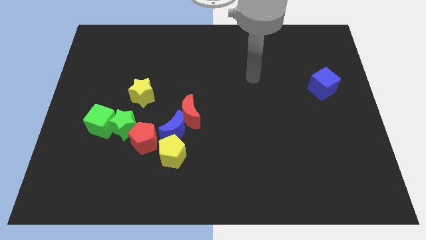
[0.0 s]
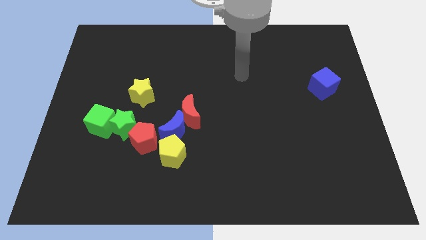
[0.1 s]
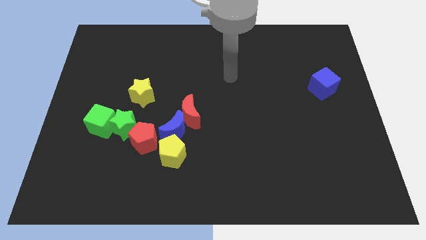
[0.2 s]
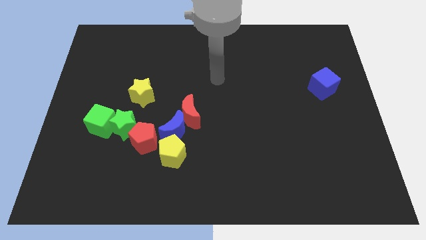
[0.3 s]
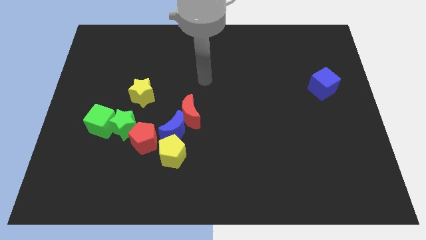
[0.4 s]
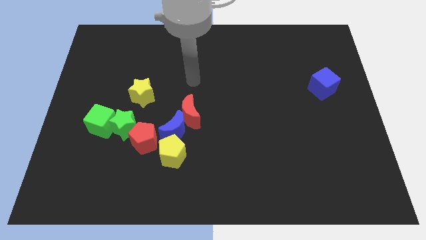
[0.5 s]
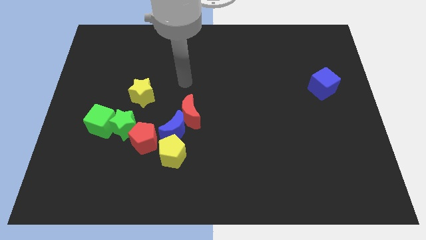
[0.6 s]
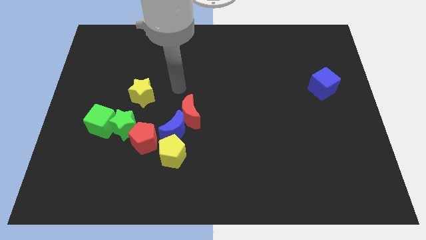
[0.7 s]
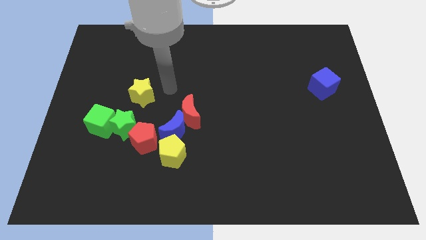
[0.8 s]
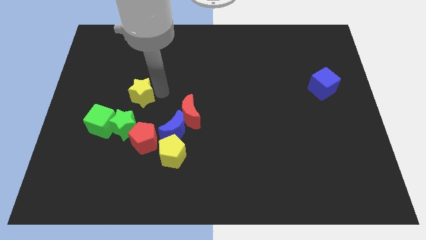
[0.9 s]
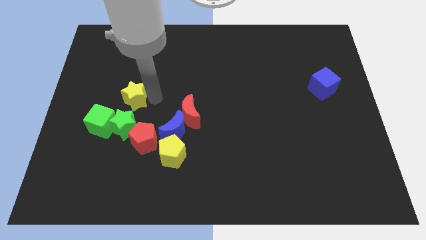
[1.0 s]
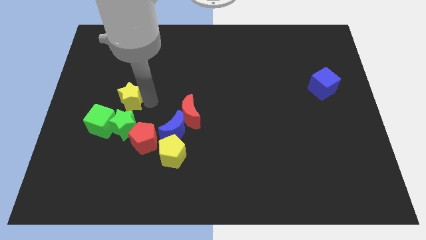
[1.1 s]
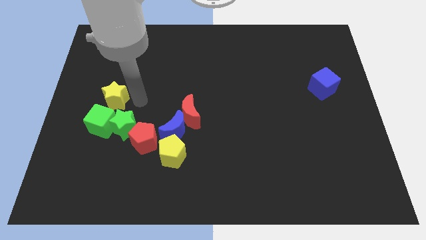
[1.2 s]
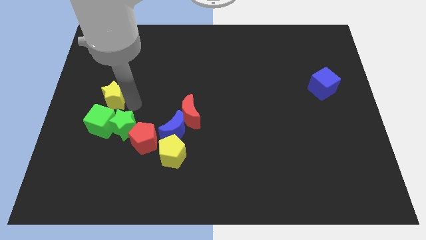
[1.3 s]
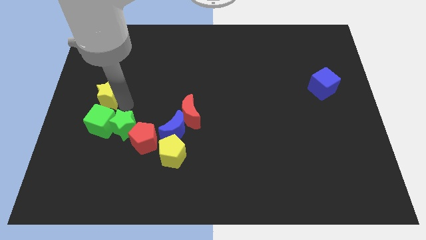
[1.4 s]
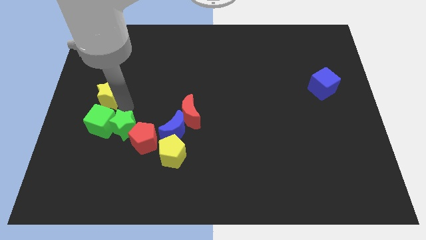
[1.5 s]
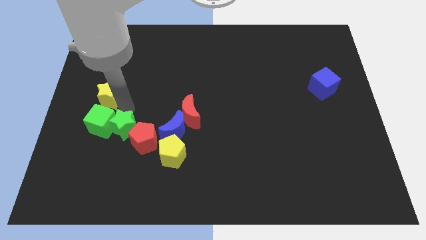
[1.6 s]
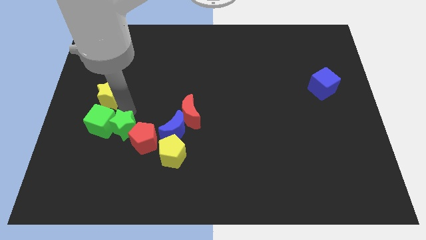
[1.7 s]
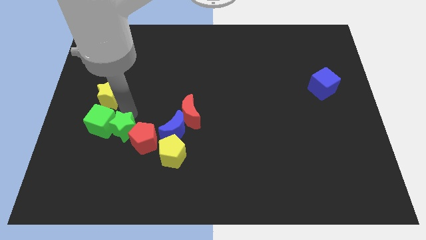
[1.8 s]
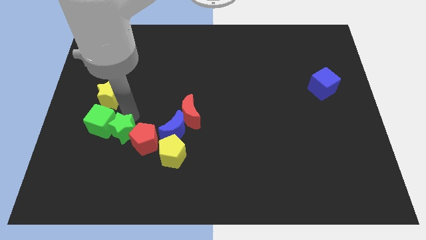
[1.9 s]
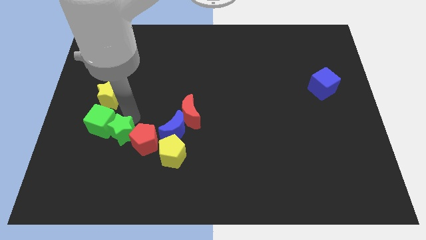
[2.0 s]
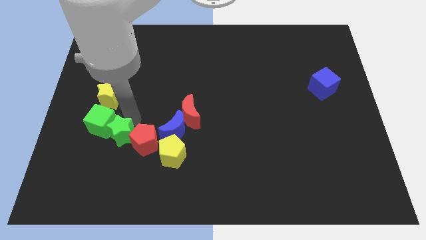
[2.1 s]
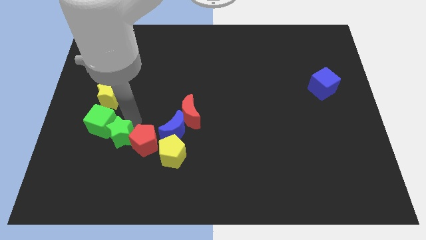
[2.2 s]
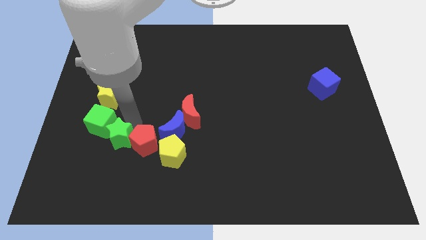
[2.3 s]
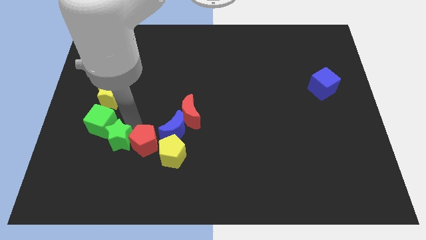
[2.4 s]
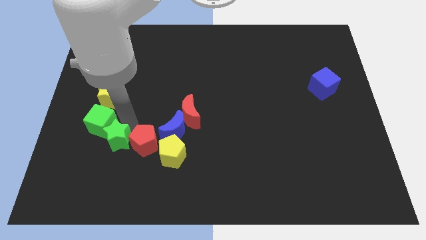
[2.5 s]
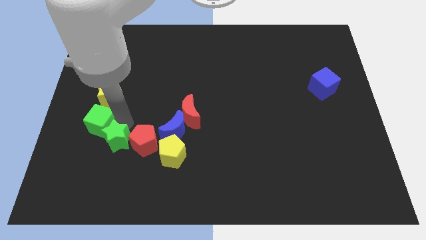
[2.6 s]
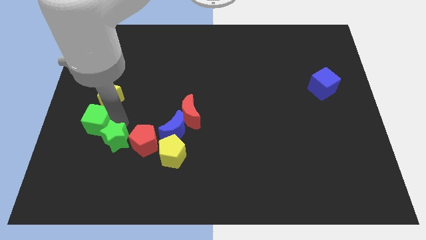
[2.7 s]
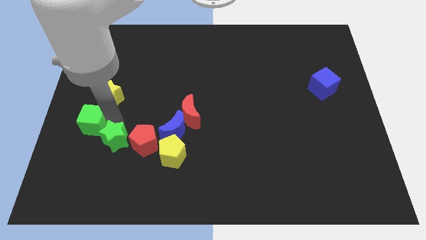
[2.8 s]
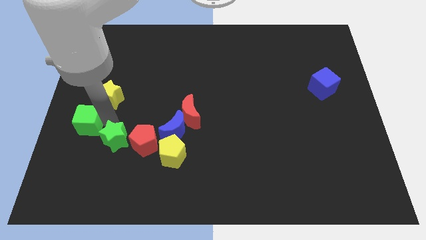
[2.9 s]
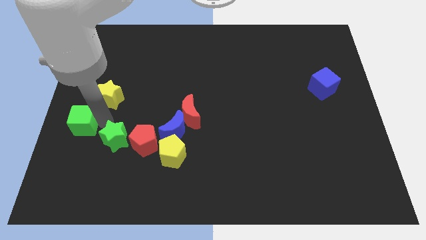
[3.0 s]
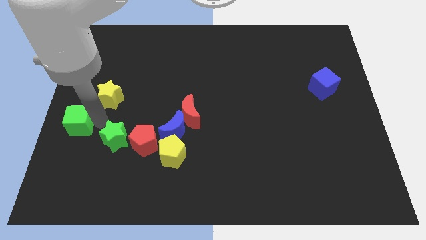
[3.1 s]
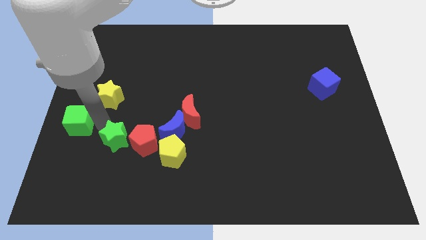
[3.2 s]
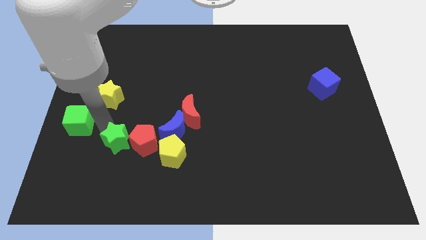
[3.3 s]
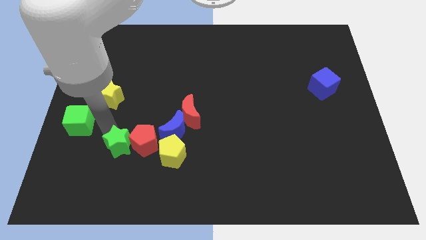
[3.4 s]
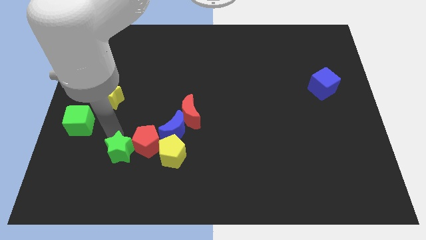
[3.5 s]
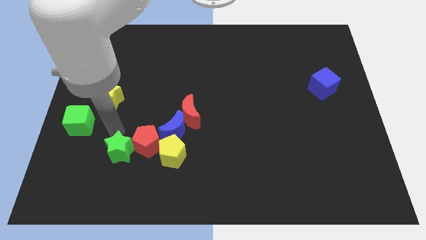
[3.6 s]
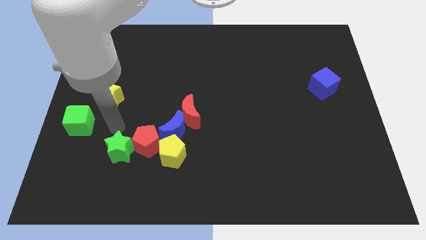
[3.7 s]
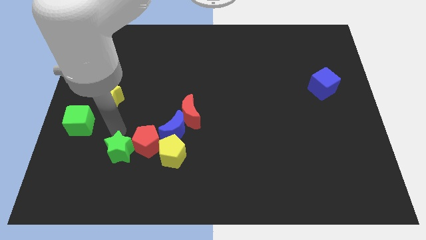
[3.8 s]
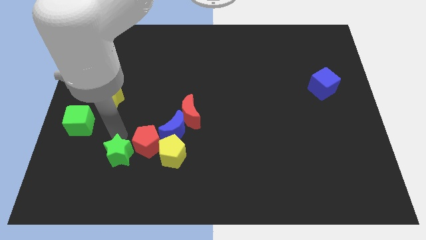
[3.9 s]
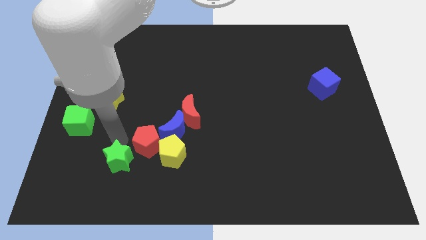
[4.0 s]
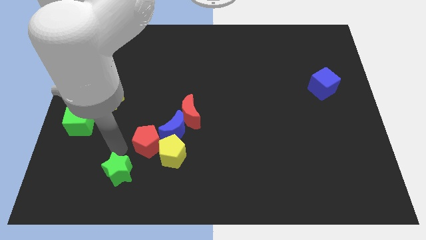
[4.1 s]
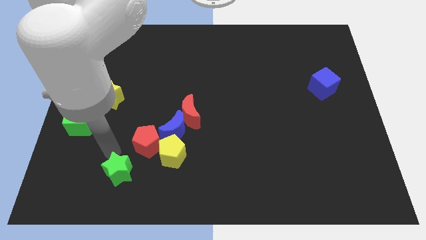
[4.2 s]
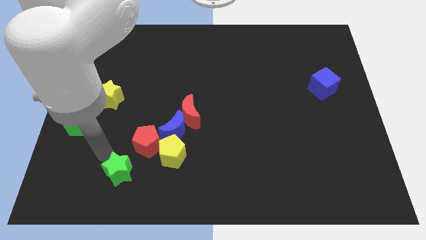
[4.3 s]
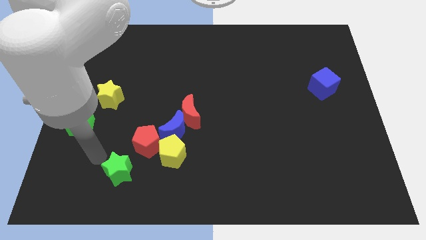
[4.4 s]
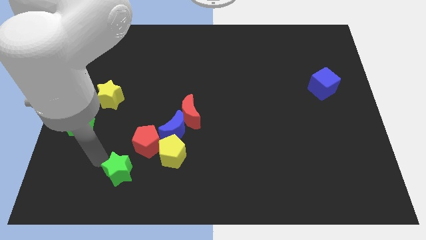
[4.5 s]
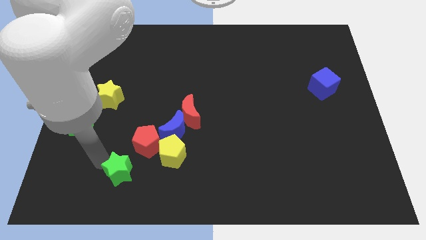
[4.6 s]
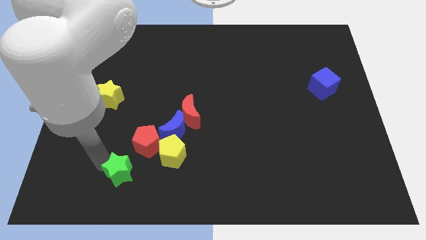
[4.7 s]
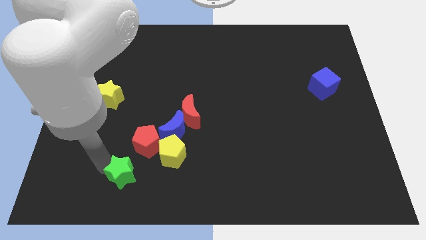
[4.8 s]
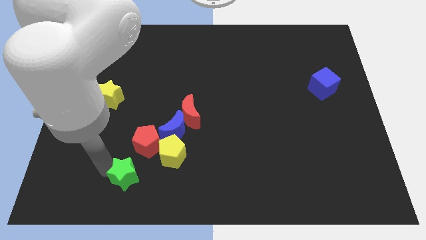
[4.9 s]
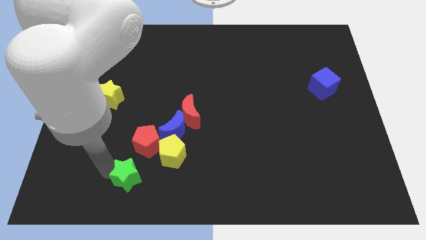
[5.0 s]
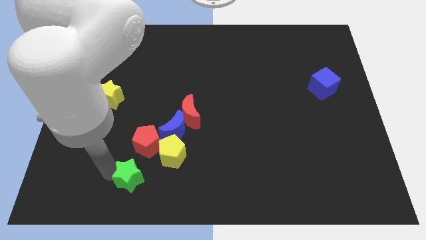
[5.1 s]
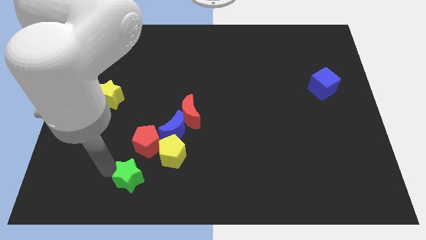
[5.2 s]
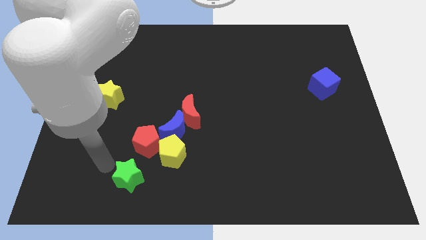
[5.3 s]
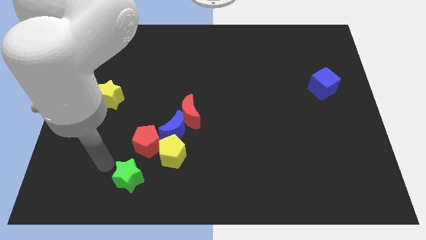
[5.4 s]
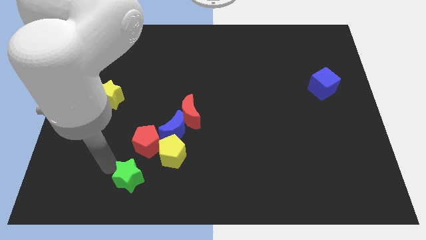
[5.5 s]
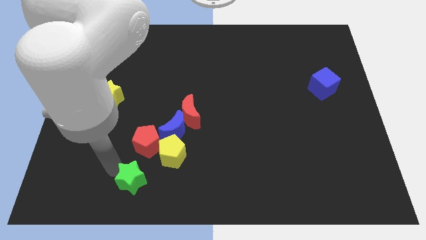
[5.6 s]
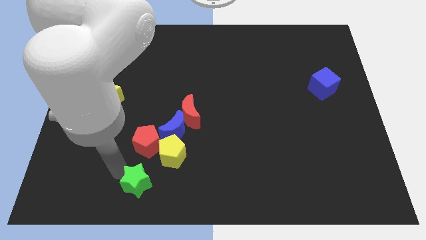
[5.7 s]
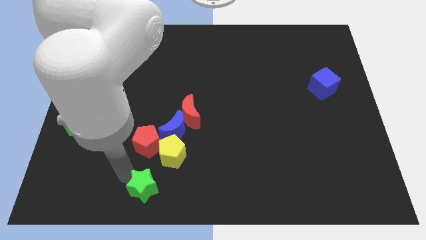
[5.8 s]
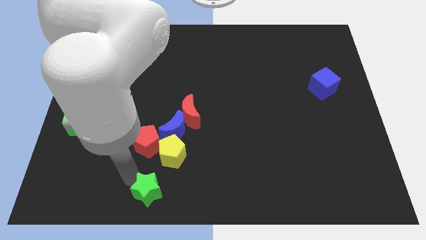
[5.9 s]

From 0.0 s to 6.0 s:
put the green star to the bottom
